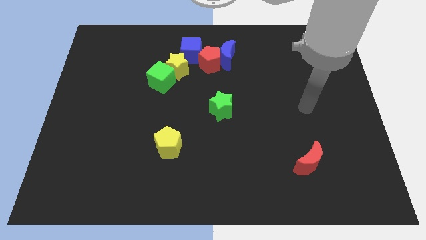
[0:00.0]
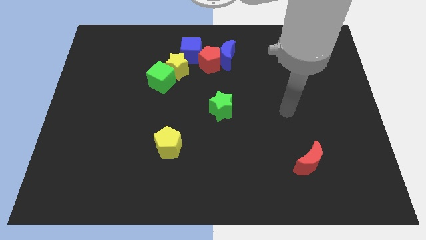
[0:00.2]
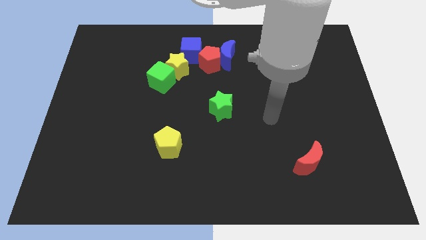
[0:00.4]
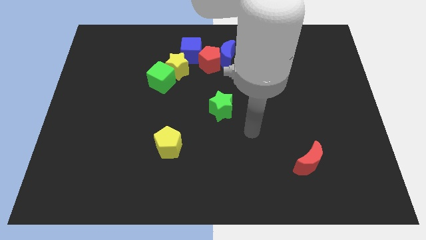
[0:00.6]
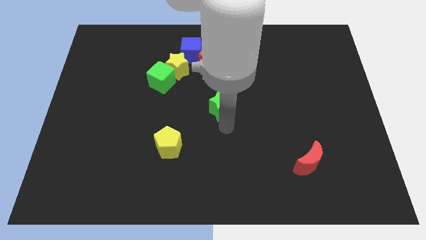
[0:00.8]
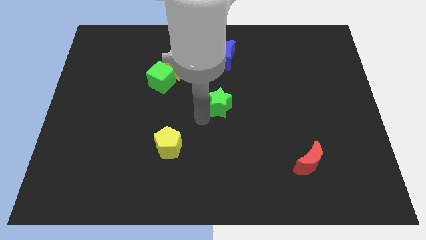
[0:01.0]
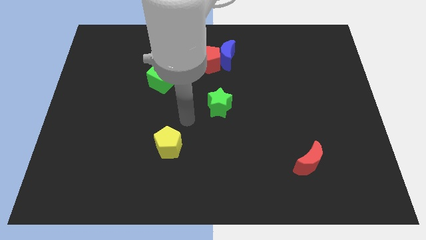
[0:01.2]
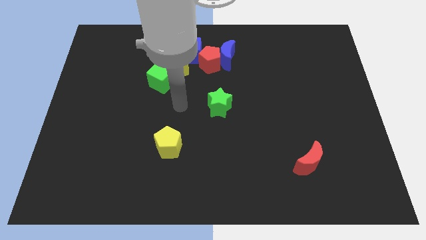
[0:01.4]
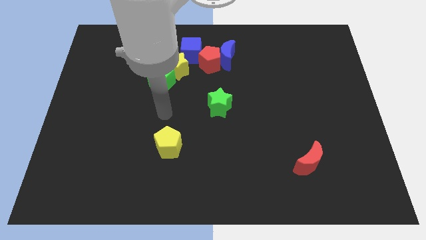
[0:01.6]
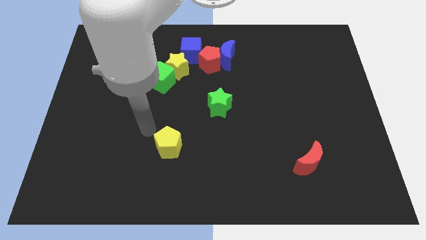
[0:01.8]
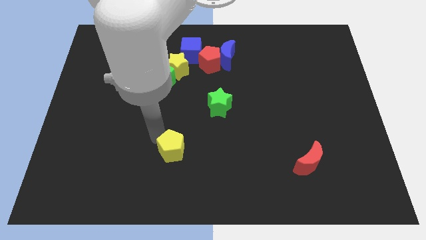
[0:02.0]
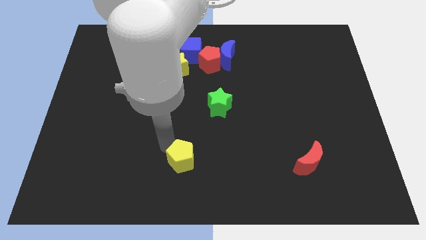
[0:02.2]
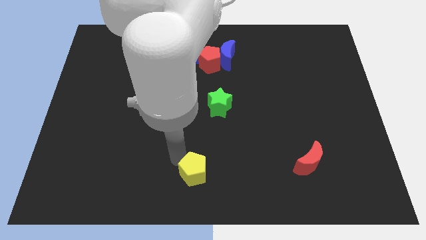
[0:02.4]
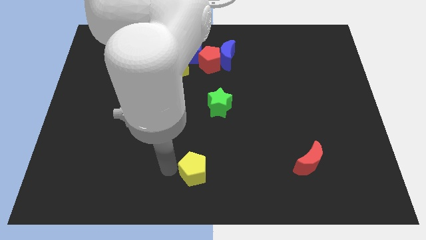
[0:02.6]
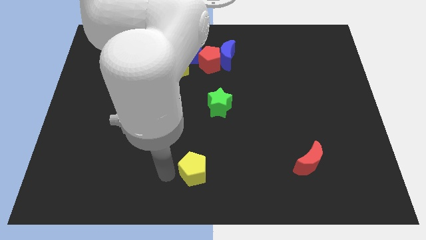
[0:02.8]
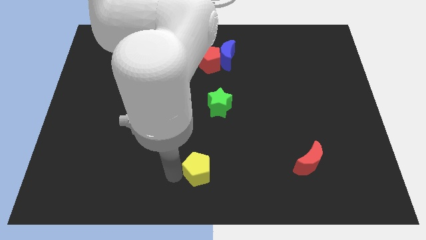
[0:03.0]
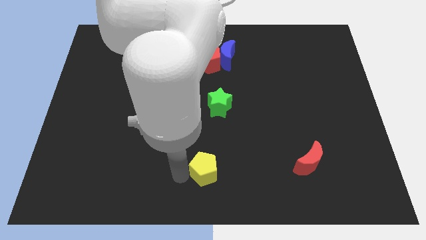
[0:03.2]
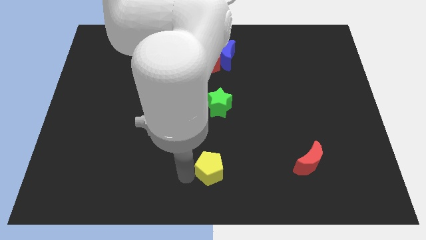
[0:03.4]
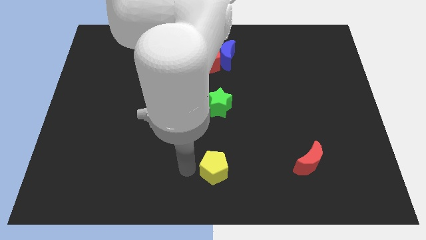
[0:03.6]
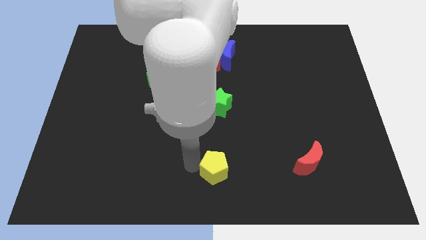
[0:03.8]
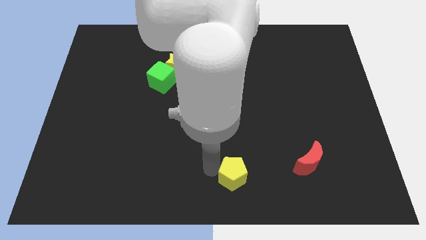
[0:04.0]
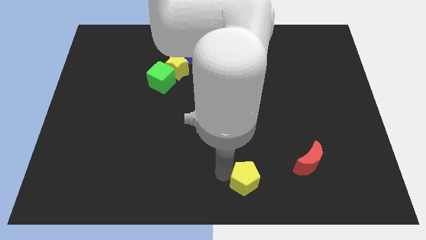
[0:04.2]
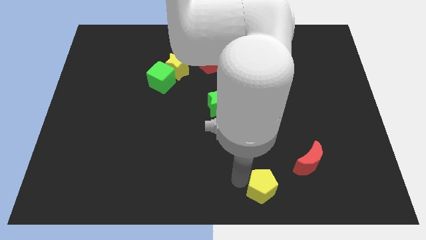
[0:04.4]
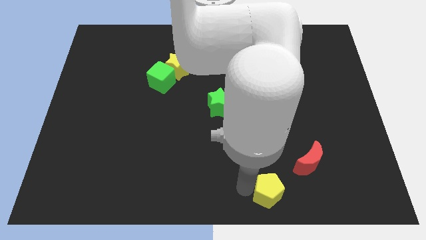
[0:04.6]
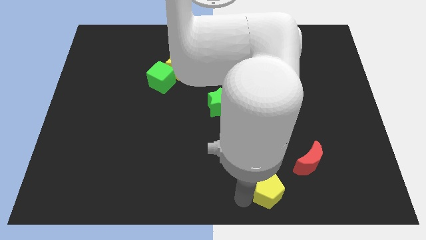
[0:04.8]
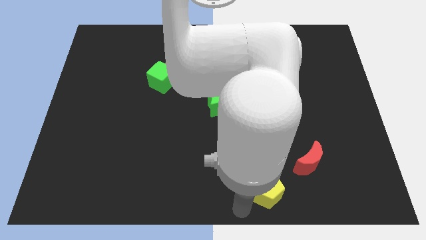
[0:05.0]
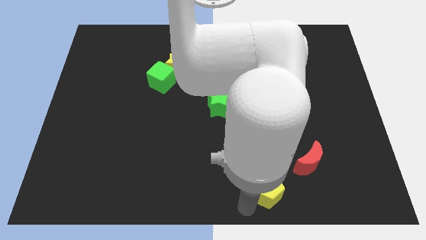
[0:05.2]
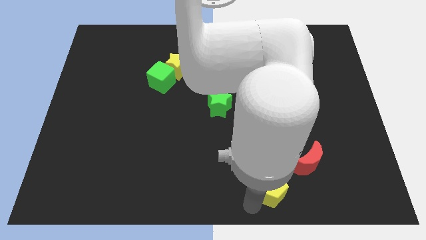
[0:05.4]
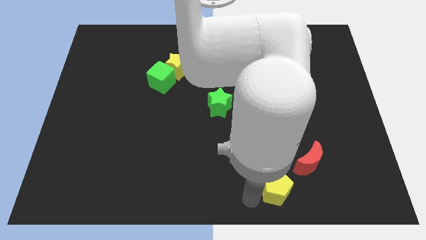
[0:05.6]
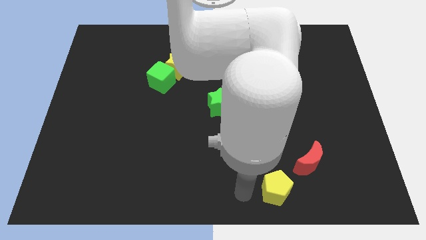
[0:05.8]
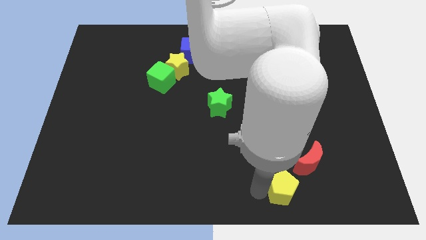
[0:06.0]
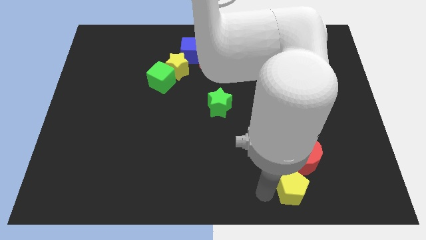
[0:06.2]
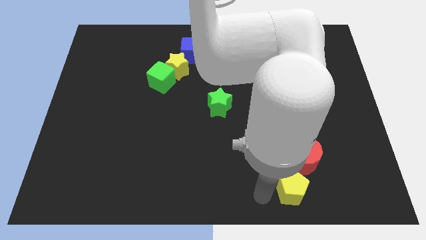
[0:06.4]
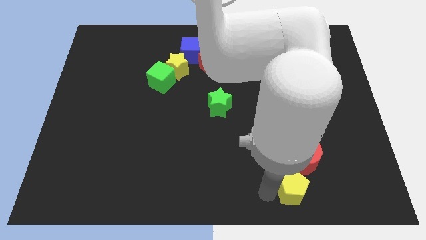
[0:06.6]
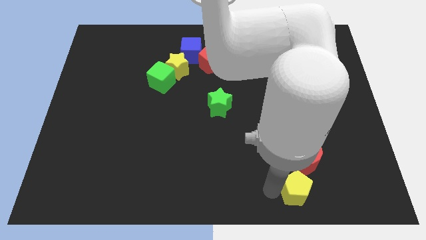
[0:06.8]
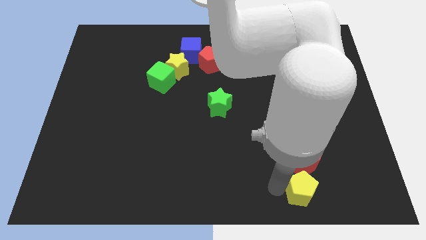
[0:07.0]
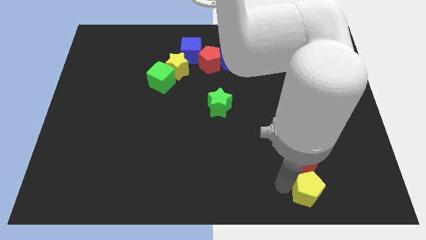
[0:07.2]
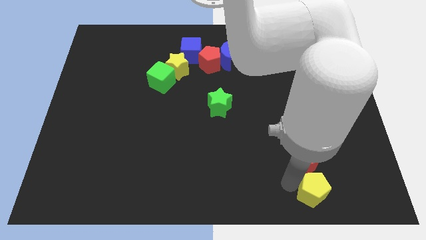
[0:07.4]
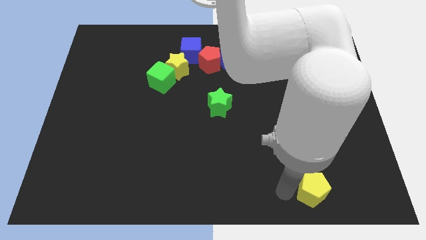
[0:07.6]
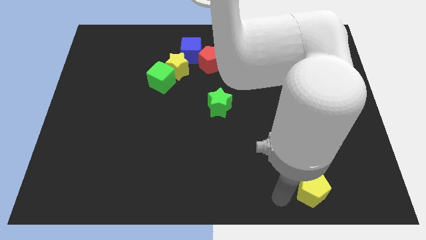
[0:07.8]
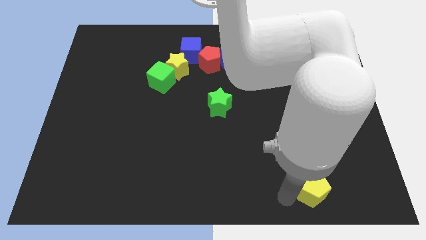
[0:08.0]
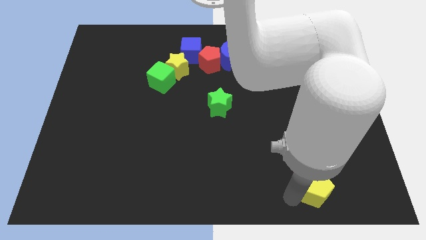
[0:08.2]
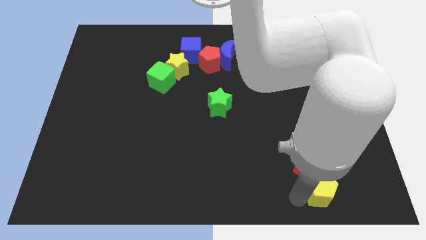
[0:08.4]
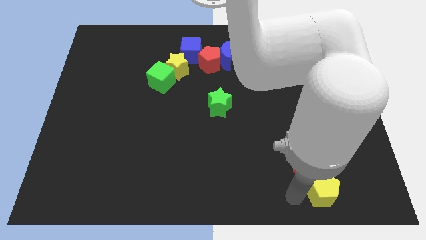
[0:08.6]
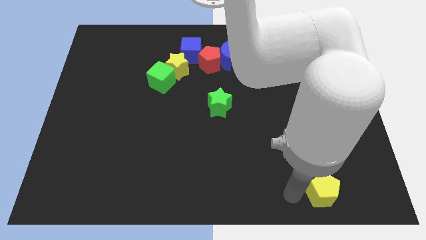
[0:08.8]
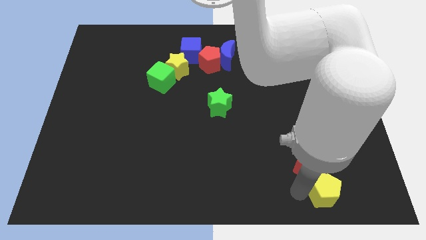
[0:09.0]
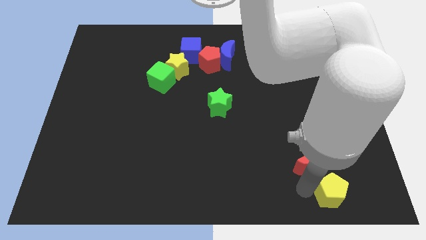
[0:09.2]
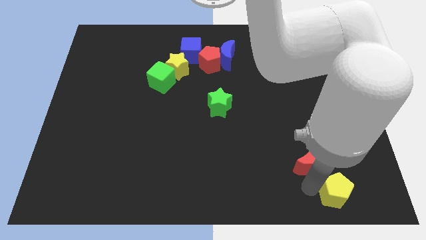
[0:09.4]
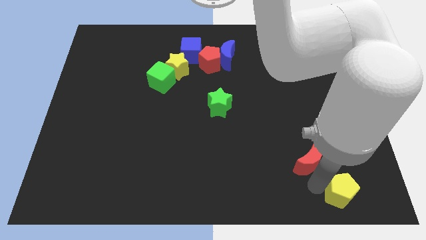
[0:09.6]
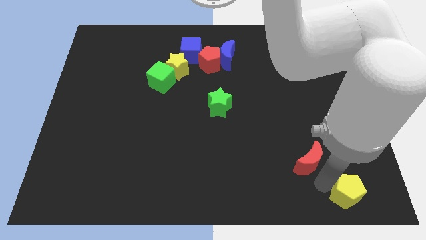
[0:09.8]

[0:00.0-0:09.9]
push the yellow pentagon to the lower right corner
